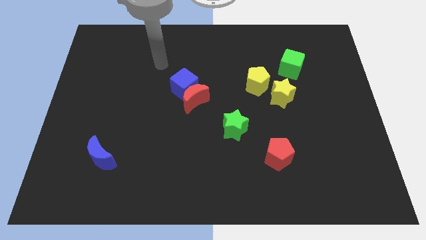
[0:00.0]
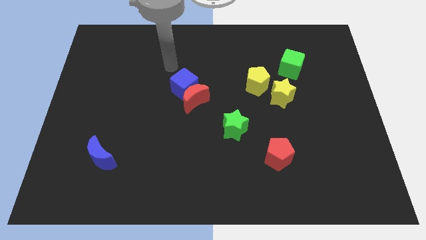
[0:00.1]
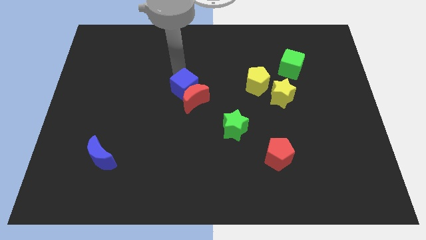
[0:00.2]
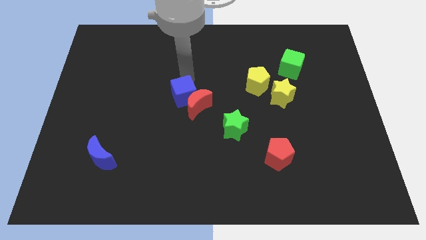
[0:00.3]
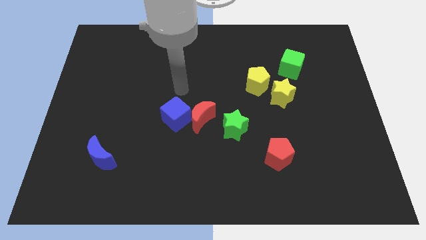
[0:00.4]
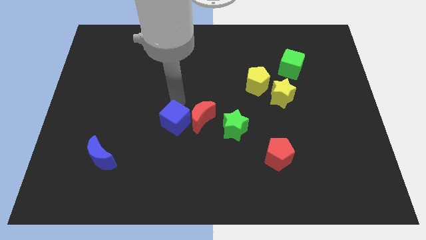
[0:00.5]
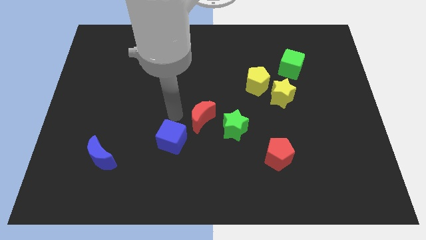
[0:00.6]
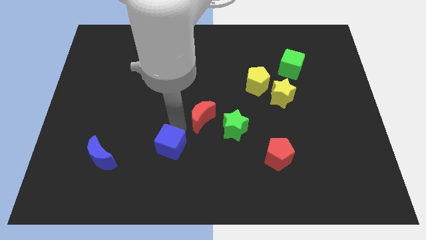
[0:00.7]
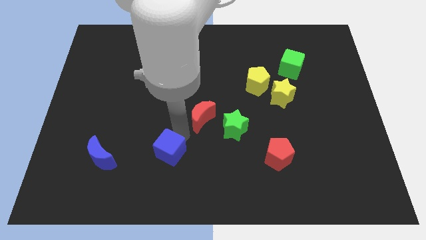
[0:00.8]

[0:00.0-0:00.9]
pull the red moon apart from the blue cube

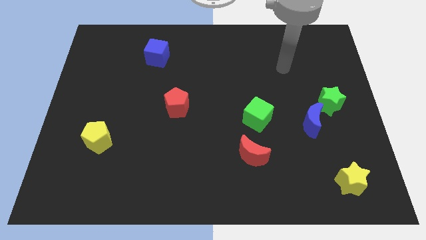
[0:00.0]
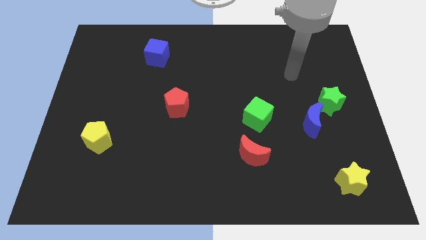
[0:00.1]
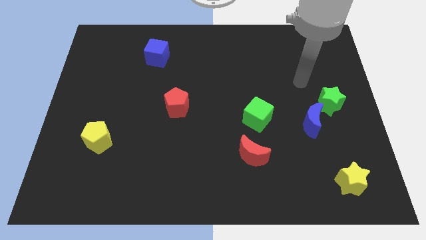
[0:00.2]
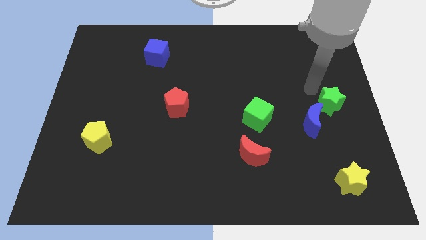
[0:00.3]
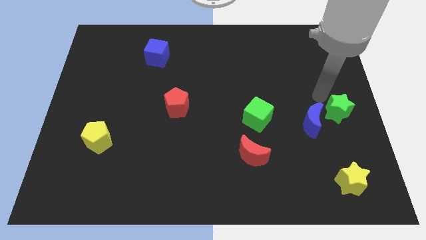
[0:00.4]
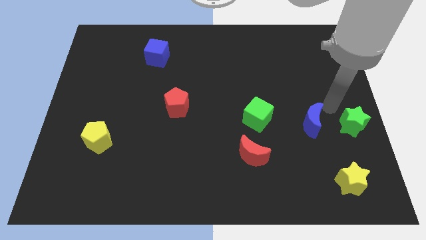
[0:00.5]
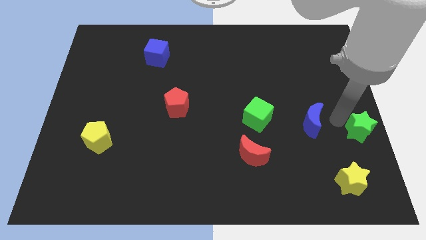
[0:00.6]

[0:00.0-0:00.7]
separate the blue moon from the green star

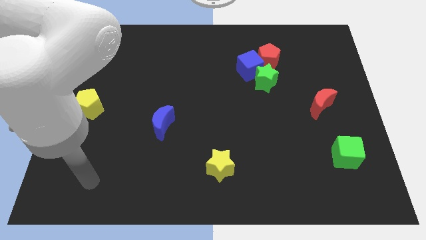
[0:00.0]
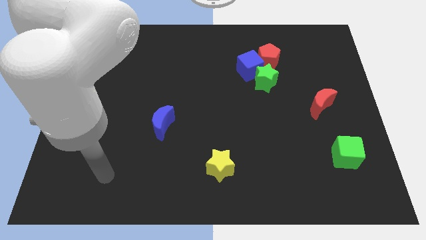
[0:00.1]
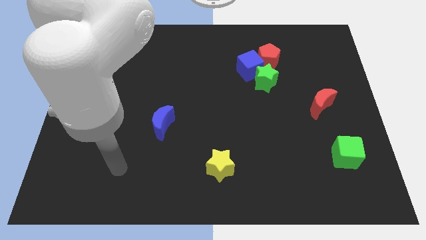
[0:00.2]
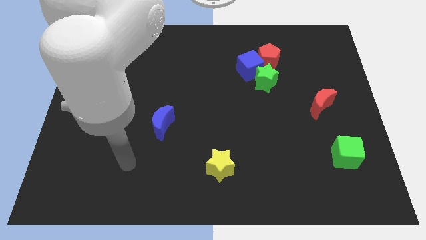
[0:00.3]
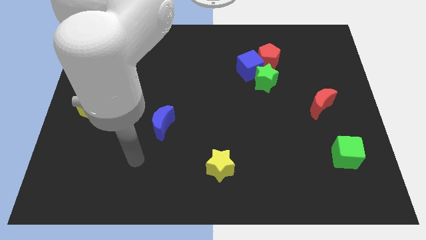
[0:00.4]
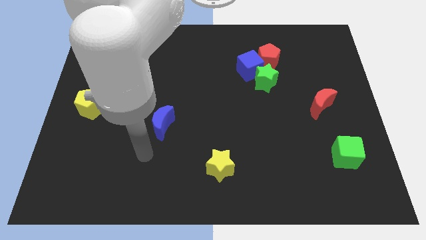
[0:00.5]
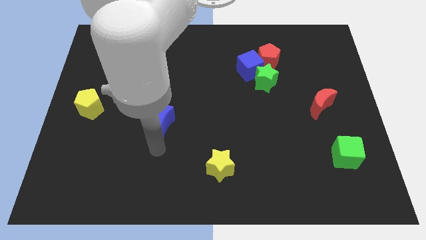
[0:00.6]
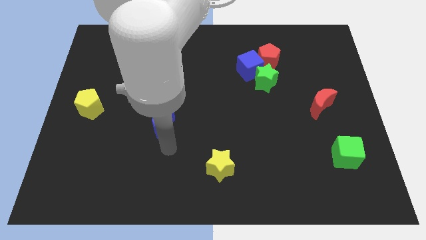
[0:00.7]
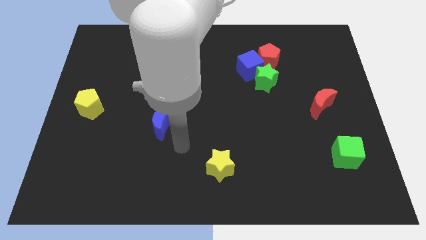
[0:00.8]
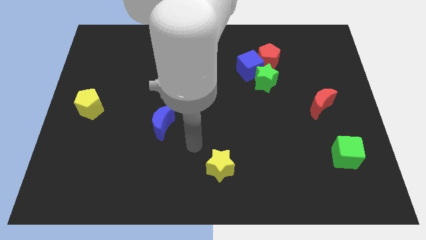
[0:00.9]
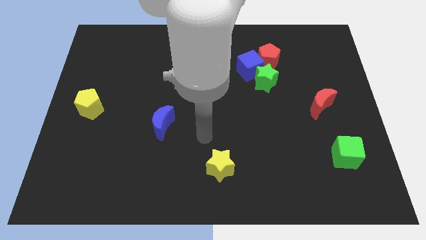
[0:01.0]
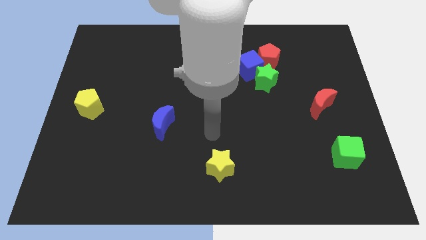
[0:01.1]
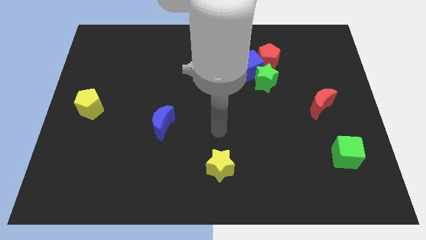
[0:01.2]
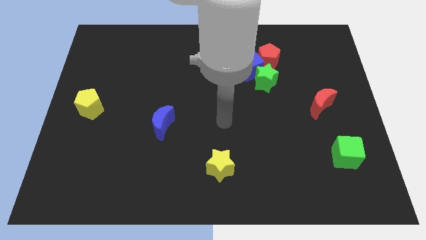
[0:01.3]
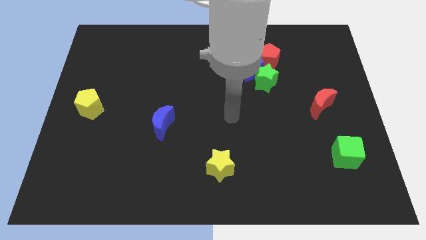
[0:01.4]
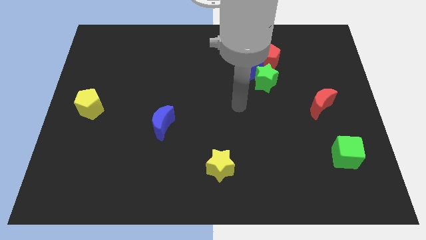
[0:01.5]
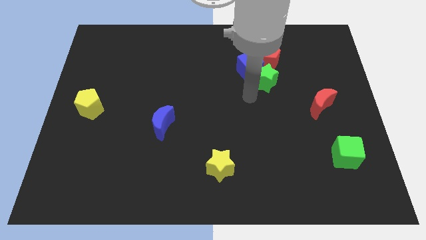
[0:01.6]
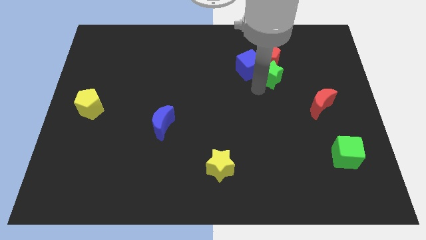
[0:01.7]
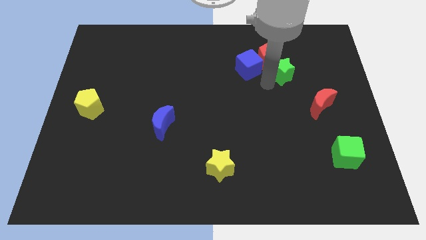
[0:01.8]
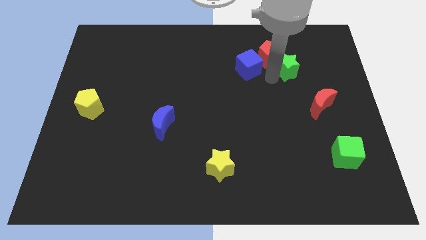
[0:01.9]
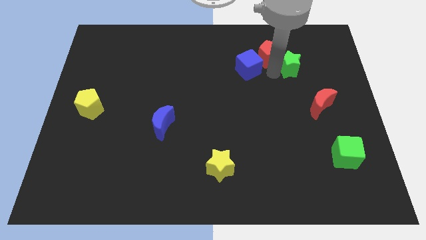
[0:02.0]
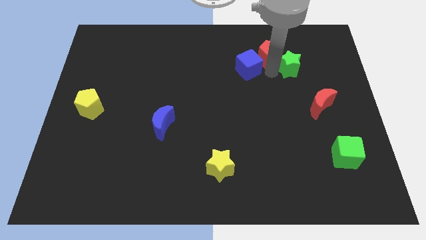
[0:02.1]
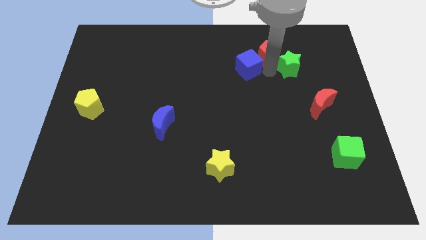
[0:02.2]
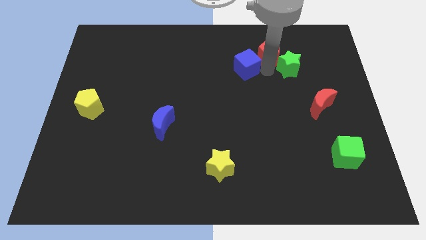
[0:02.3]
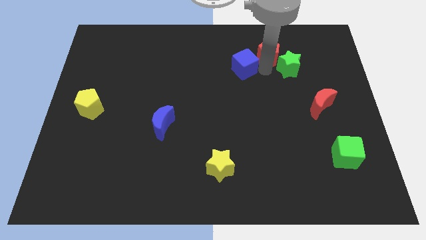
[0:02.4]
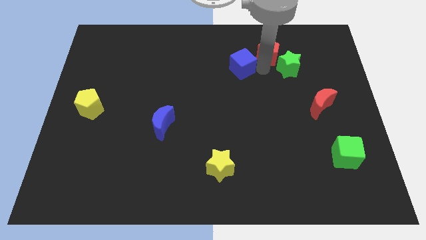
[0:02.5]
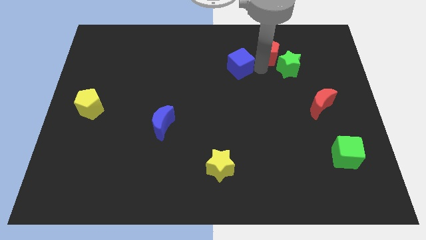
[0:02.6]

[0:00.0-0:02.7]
pull the blue cube apart from the green star and red pentagon

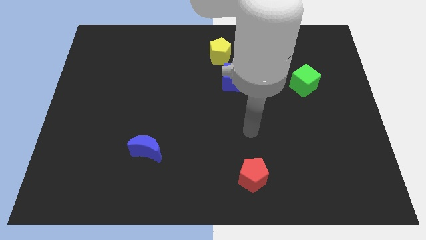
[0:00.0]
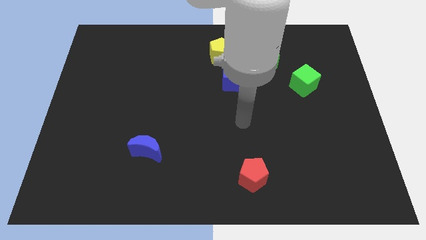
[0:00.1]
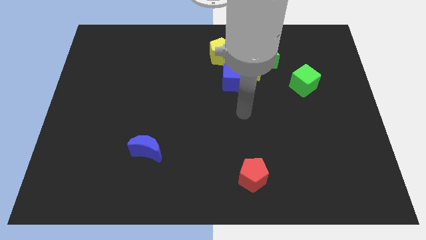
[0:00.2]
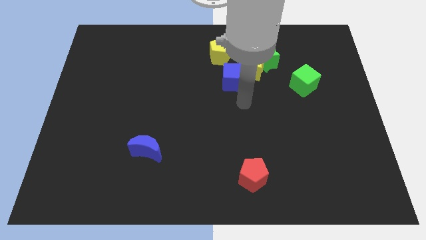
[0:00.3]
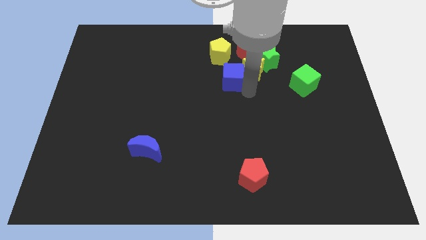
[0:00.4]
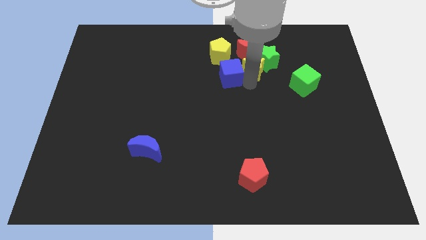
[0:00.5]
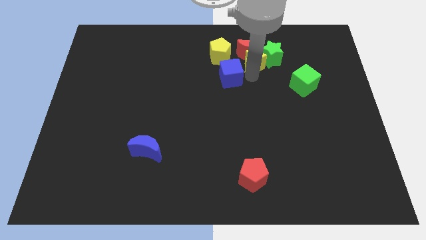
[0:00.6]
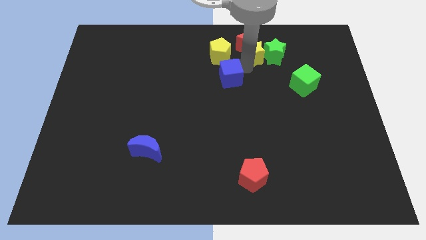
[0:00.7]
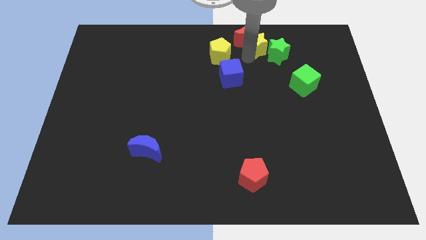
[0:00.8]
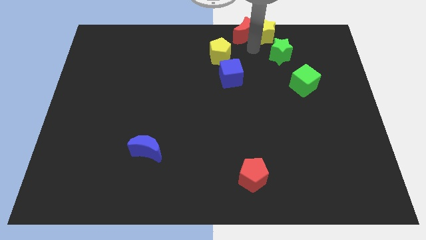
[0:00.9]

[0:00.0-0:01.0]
pull the green star apart from the yellow star and red moon

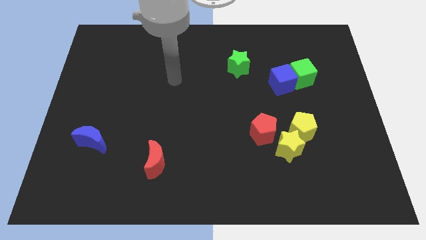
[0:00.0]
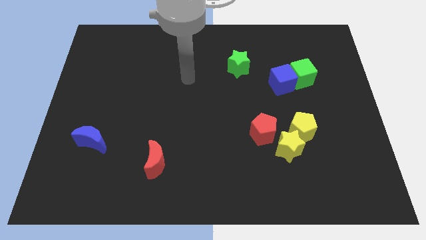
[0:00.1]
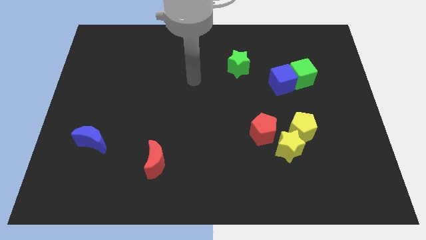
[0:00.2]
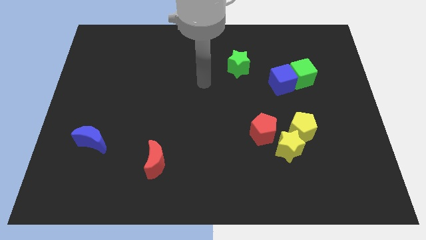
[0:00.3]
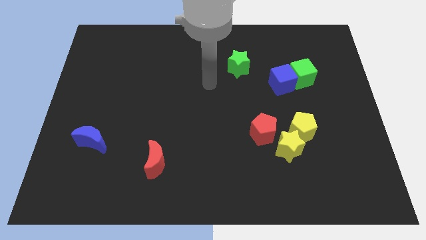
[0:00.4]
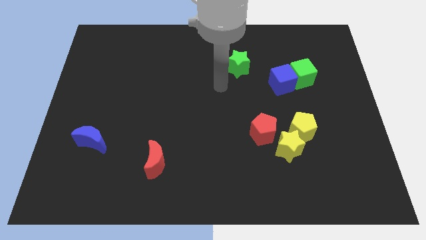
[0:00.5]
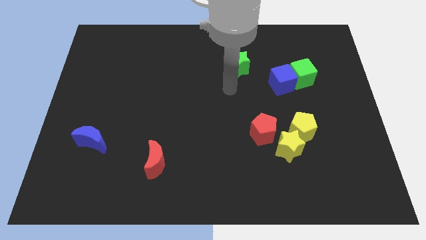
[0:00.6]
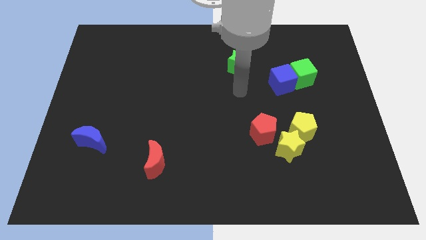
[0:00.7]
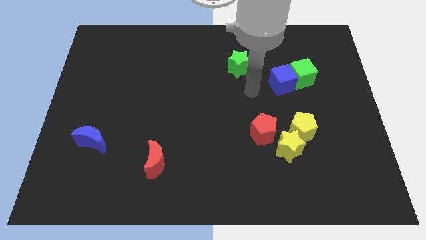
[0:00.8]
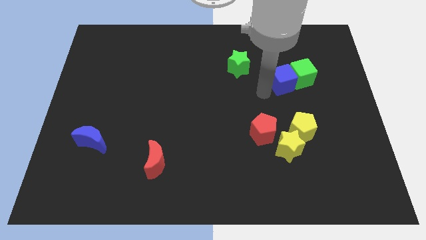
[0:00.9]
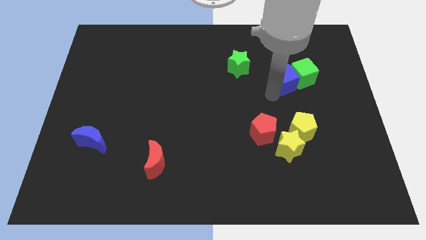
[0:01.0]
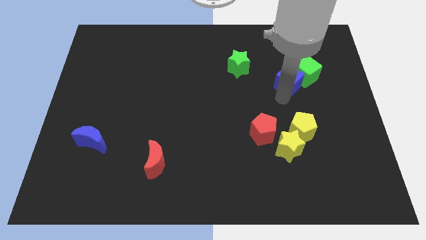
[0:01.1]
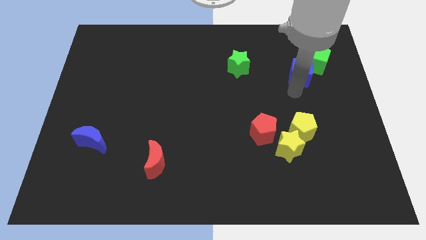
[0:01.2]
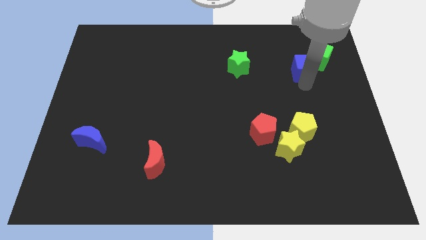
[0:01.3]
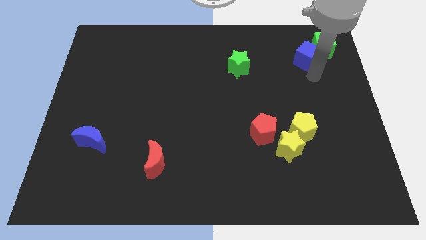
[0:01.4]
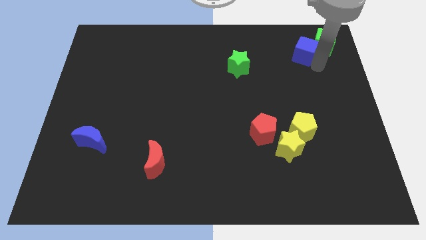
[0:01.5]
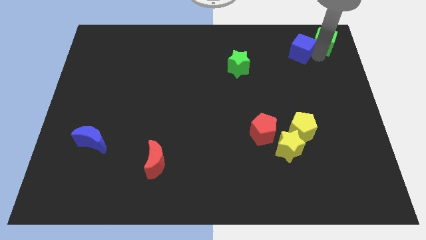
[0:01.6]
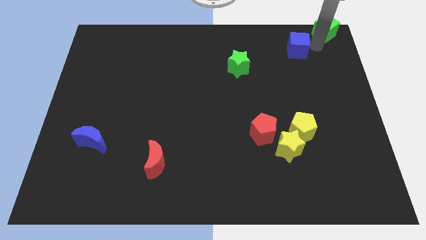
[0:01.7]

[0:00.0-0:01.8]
pull the blue cube apart from the green cube

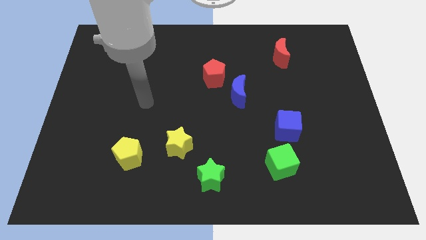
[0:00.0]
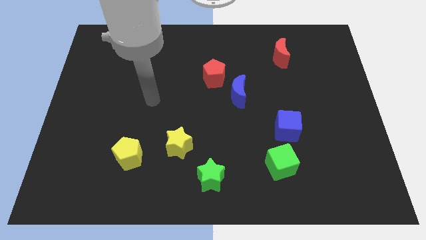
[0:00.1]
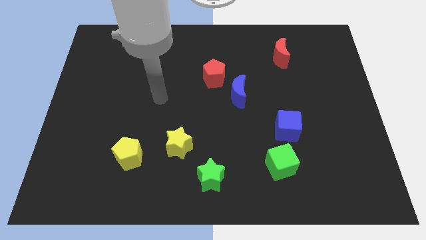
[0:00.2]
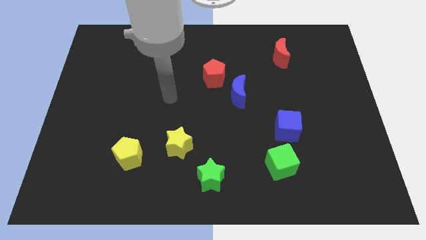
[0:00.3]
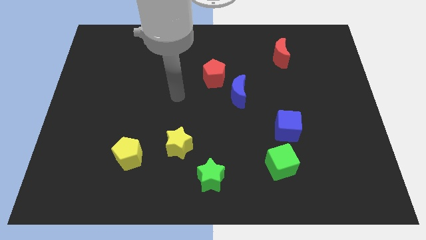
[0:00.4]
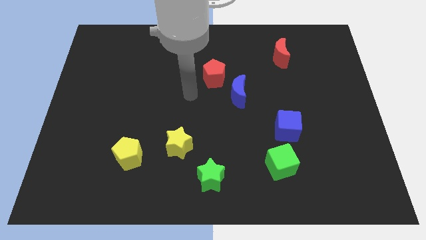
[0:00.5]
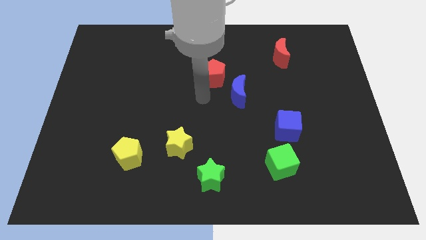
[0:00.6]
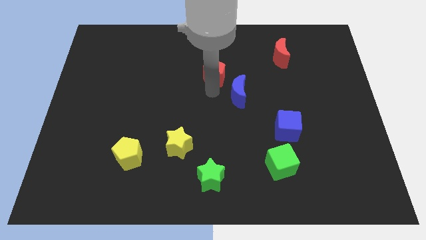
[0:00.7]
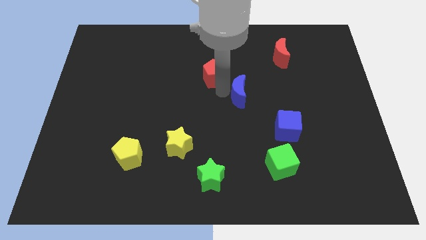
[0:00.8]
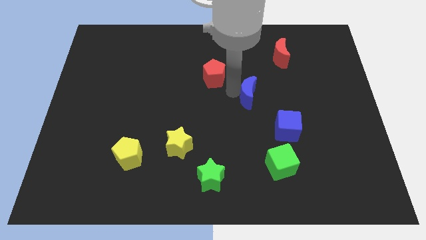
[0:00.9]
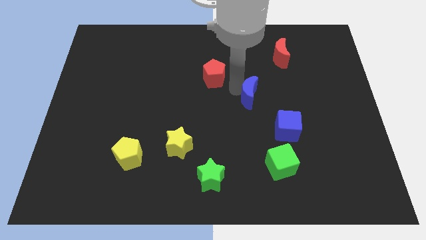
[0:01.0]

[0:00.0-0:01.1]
pull the red pentagon apart from the blue moon

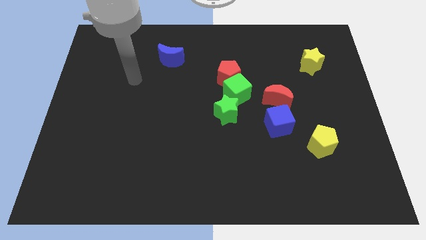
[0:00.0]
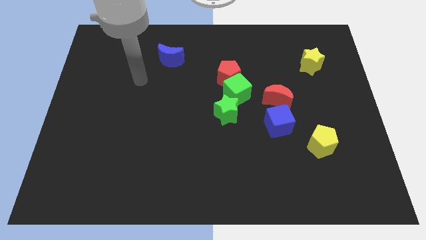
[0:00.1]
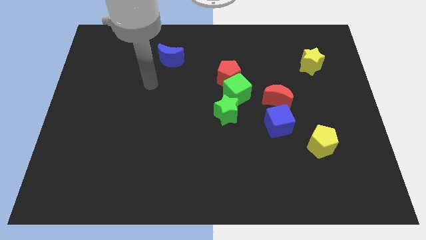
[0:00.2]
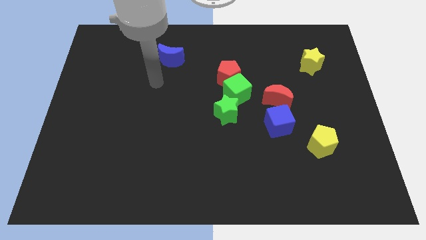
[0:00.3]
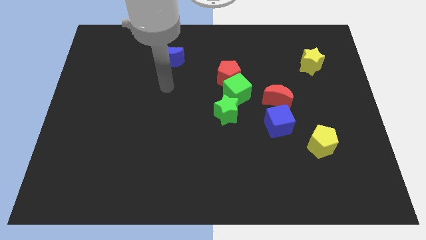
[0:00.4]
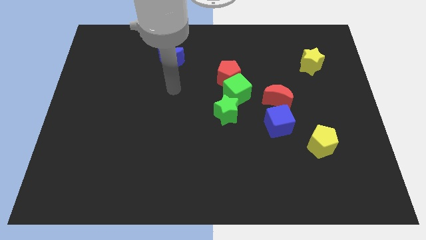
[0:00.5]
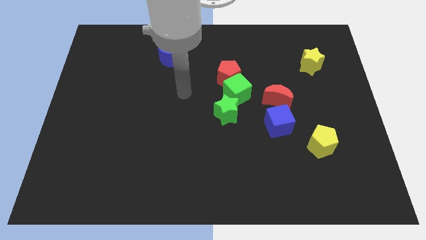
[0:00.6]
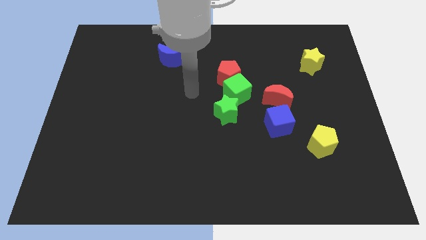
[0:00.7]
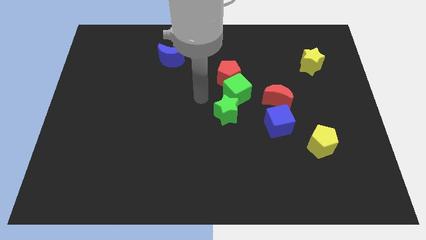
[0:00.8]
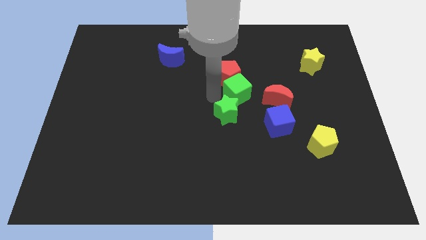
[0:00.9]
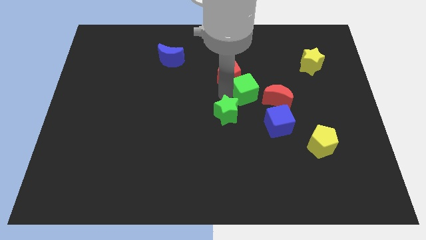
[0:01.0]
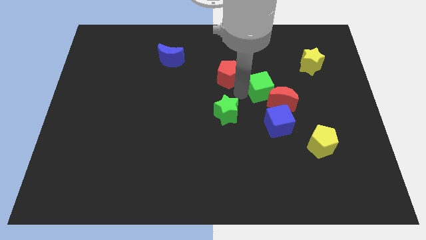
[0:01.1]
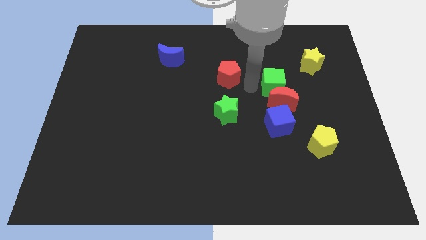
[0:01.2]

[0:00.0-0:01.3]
separate the red pentagon from the green cube
